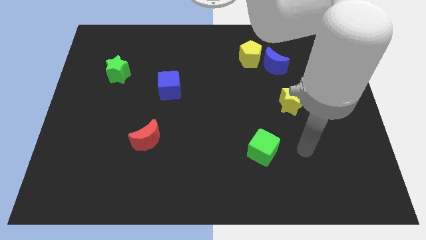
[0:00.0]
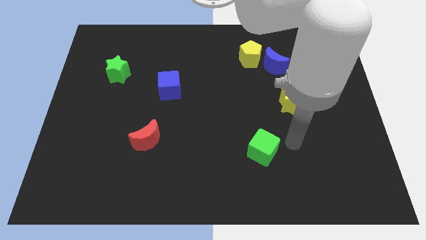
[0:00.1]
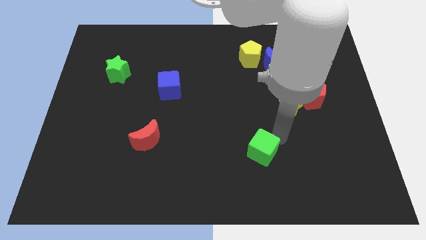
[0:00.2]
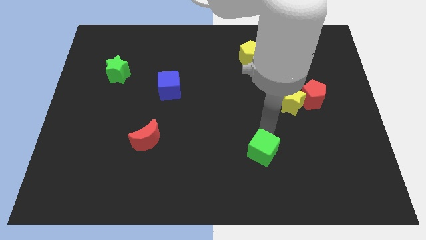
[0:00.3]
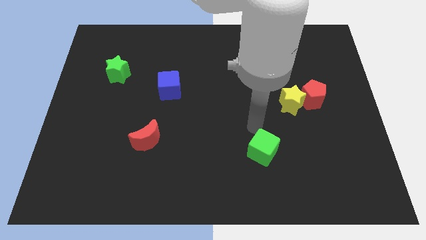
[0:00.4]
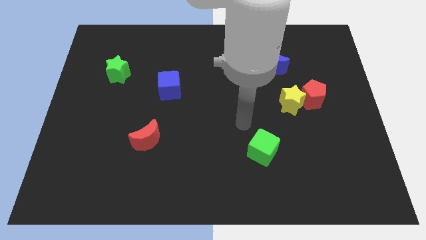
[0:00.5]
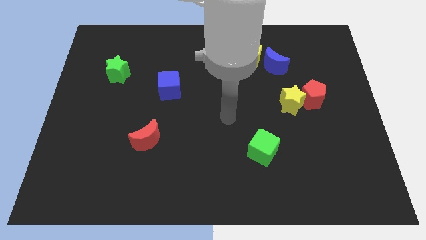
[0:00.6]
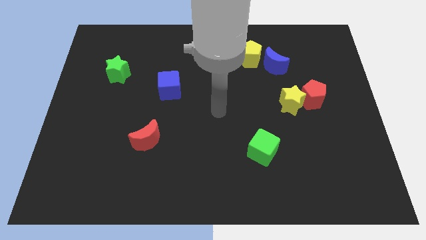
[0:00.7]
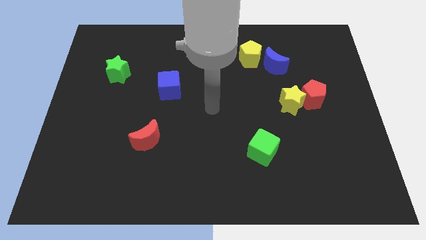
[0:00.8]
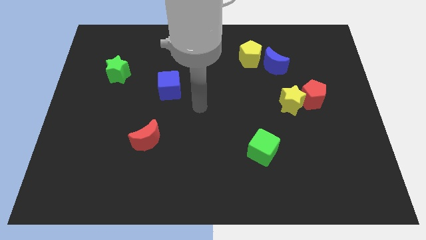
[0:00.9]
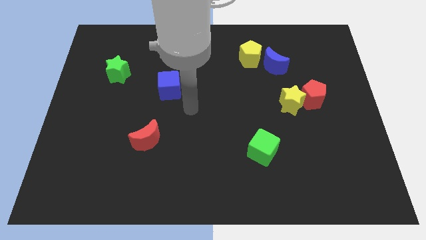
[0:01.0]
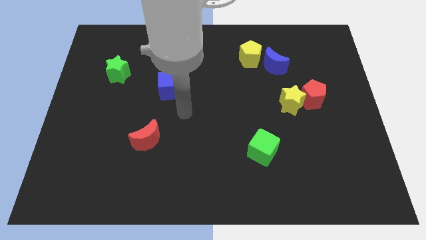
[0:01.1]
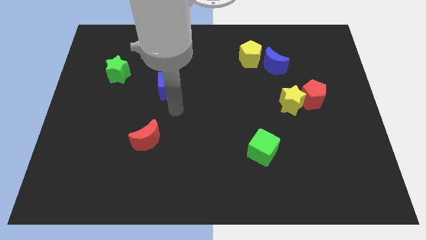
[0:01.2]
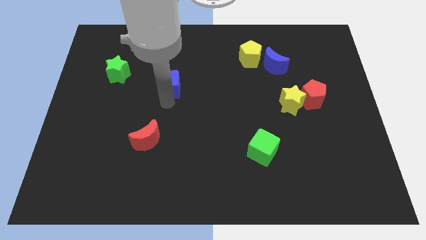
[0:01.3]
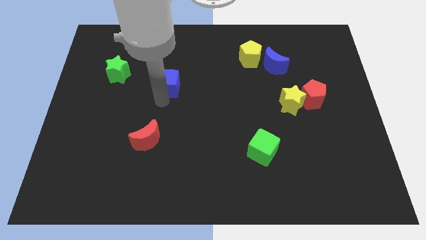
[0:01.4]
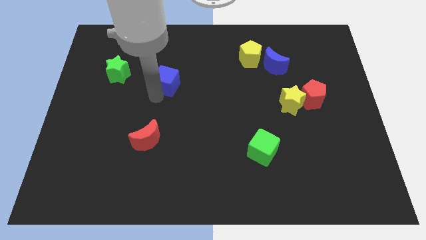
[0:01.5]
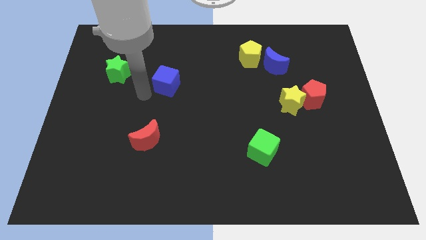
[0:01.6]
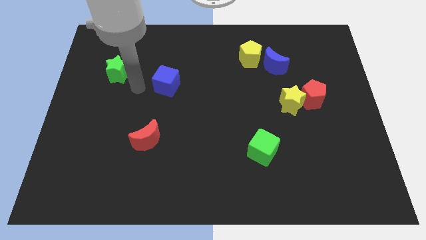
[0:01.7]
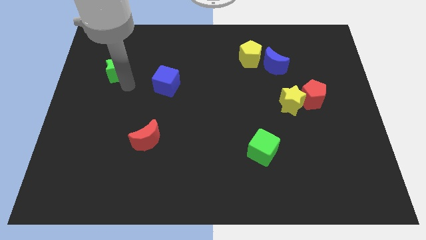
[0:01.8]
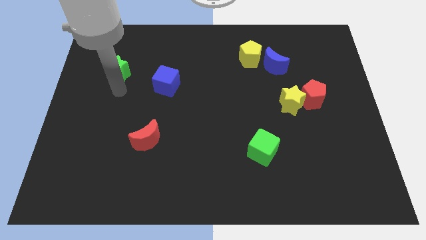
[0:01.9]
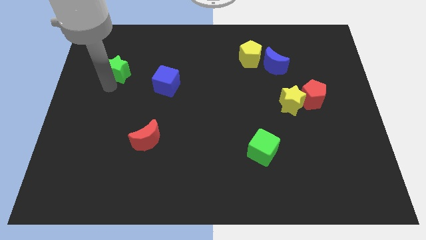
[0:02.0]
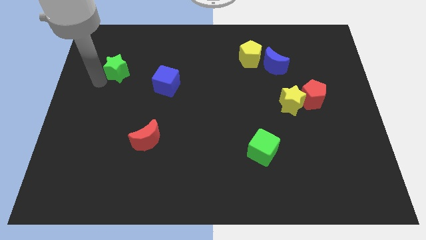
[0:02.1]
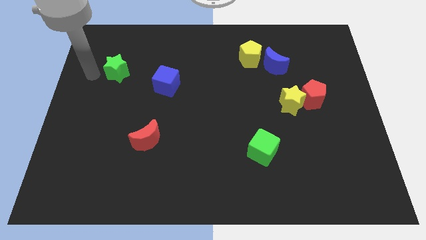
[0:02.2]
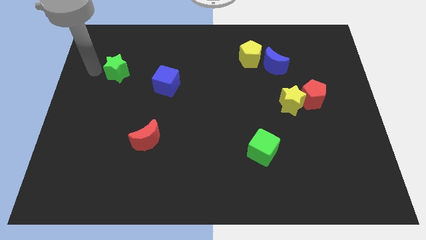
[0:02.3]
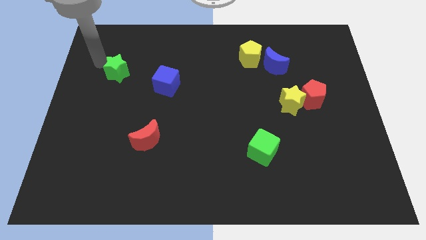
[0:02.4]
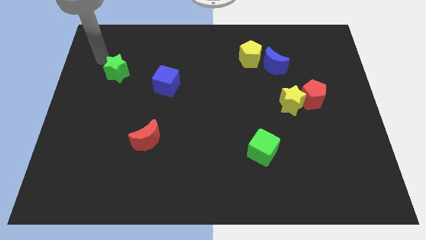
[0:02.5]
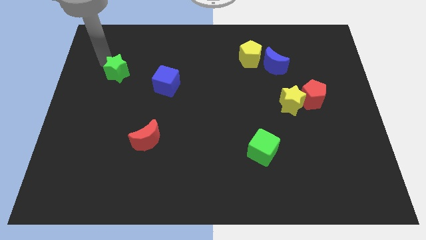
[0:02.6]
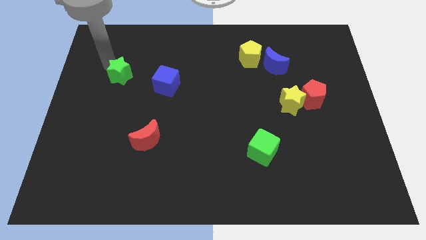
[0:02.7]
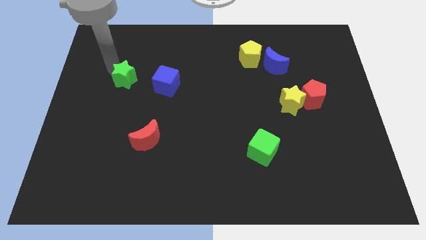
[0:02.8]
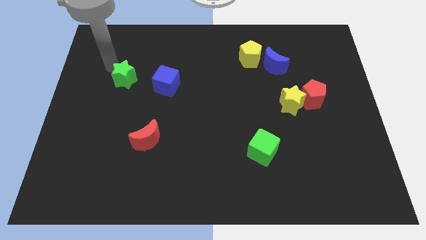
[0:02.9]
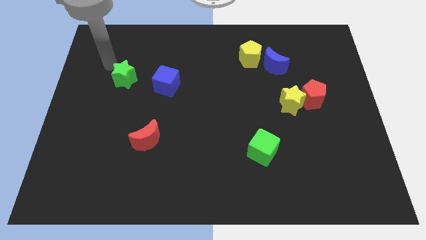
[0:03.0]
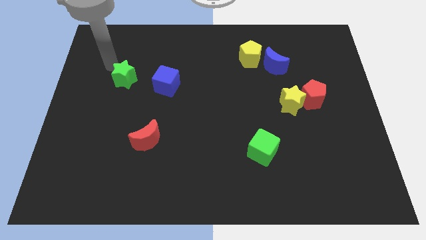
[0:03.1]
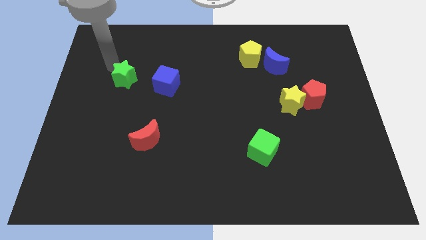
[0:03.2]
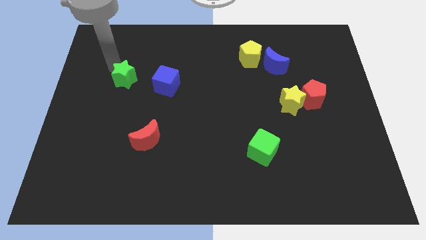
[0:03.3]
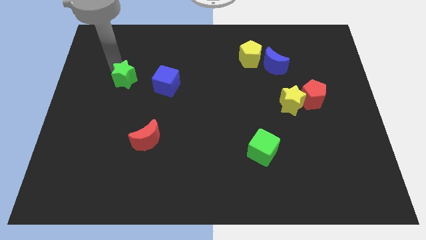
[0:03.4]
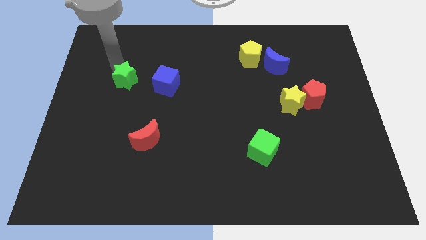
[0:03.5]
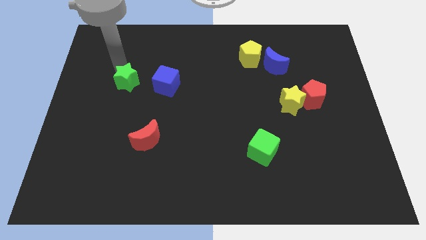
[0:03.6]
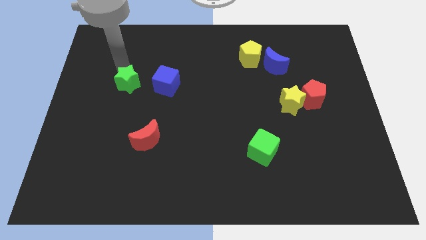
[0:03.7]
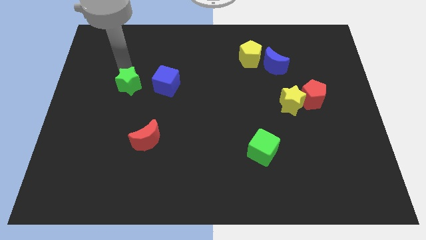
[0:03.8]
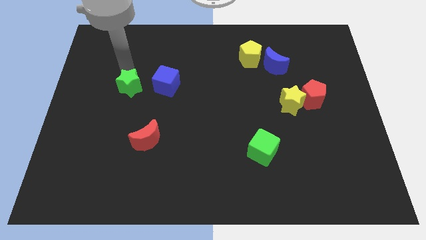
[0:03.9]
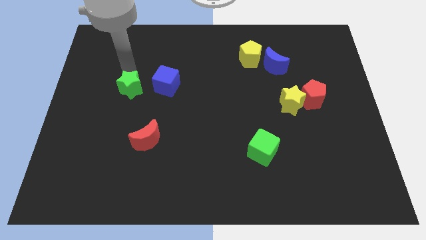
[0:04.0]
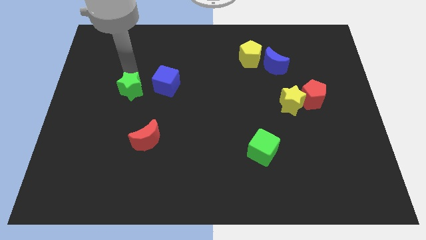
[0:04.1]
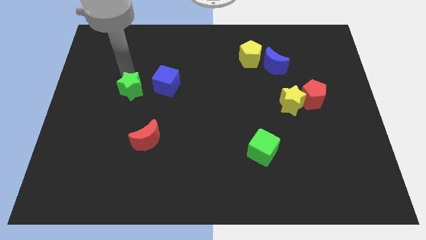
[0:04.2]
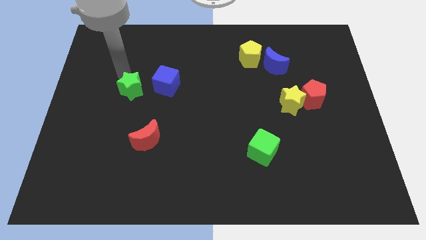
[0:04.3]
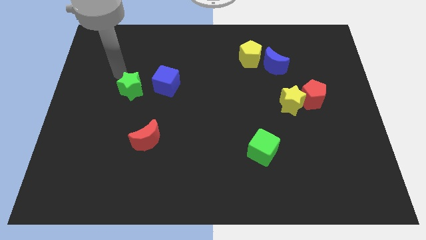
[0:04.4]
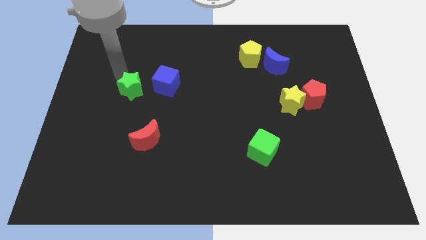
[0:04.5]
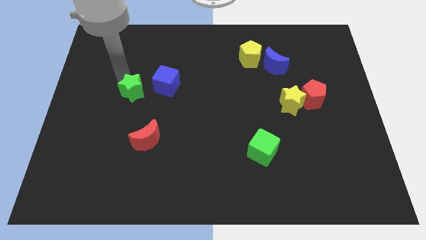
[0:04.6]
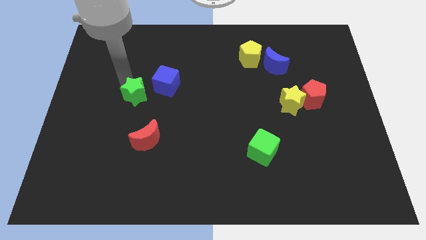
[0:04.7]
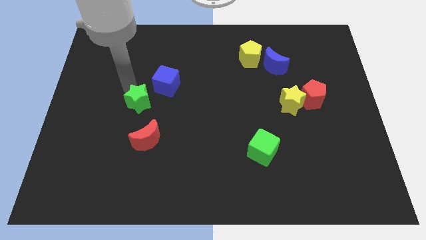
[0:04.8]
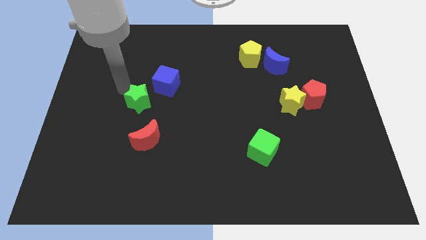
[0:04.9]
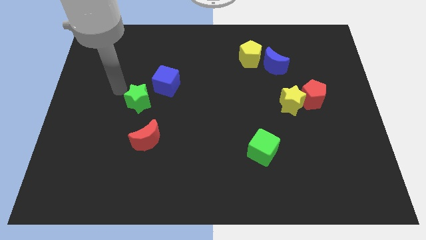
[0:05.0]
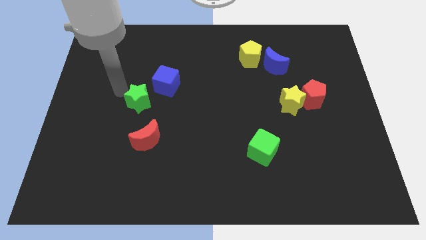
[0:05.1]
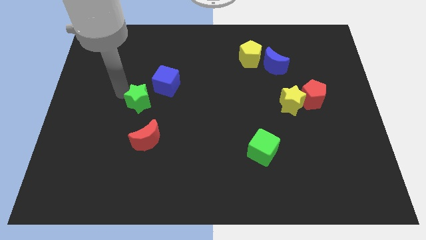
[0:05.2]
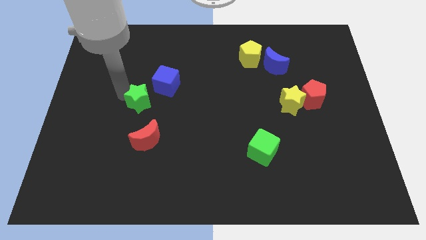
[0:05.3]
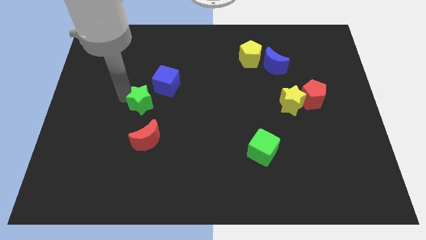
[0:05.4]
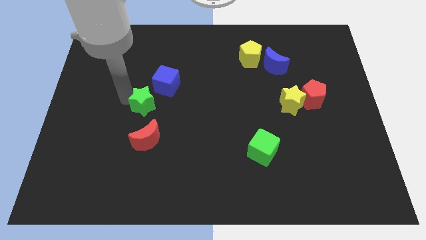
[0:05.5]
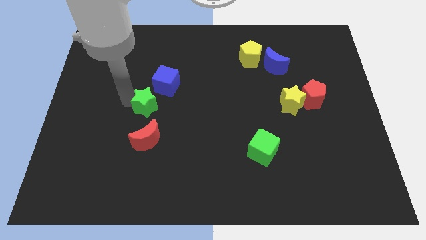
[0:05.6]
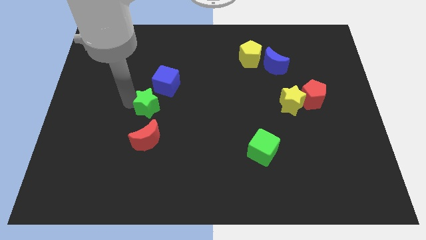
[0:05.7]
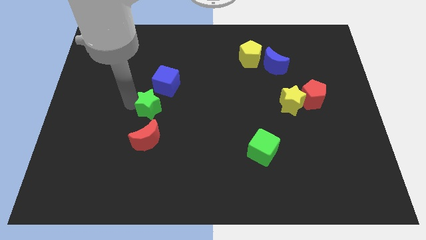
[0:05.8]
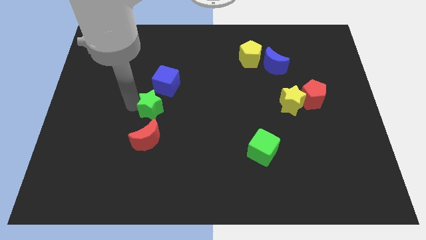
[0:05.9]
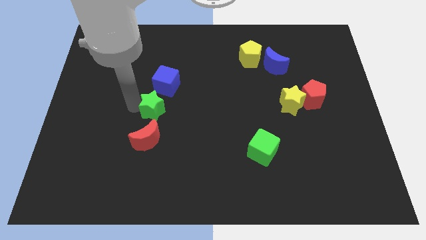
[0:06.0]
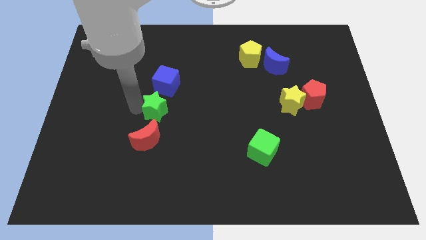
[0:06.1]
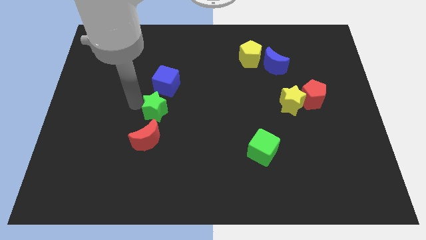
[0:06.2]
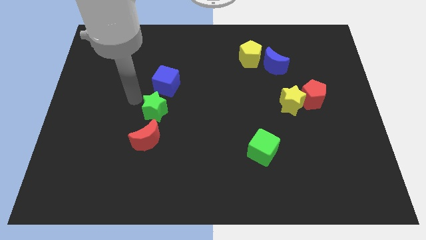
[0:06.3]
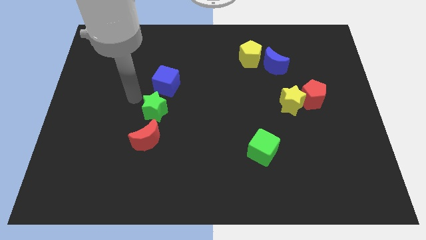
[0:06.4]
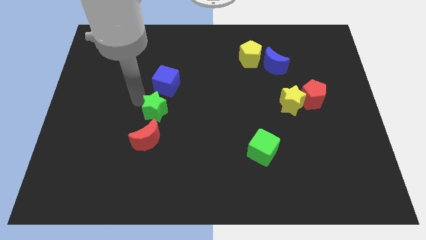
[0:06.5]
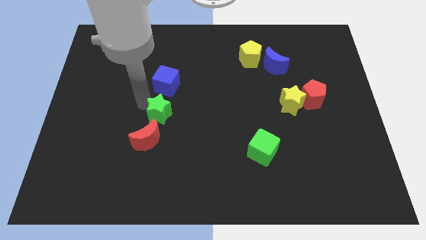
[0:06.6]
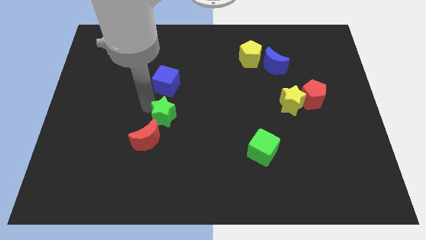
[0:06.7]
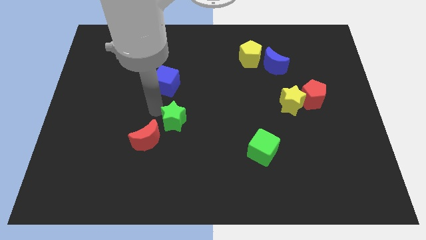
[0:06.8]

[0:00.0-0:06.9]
push the green star down and right diagonally

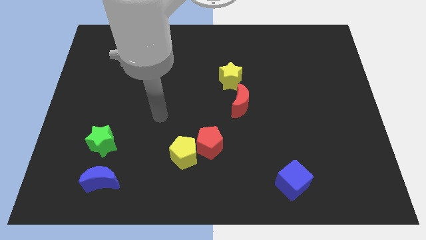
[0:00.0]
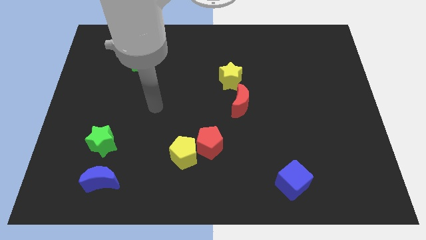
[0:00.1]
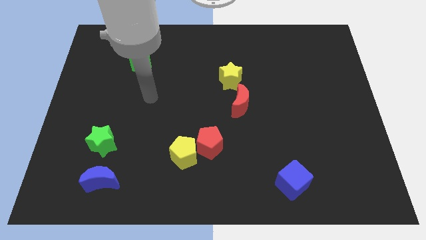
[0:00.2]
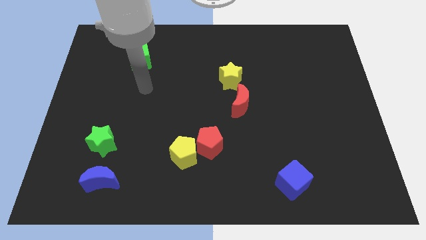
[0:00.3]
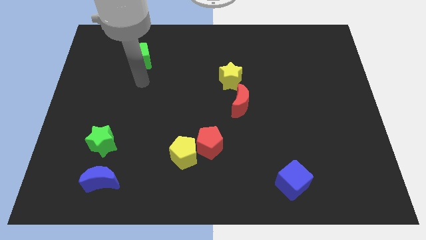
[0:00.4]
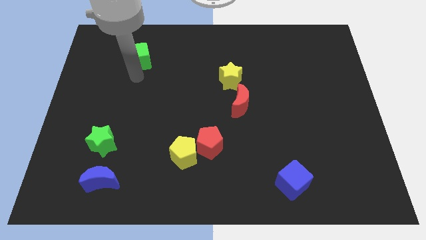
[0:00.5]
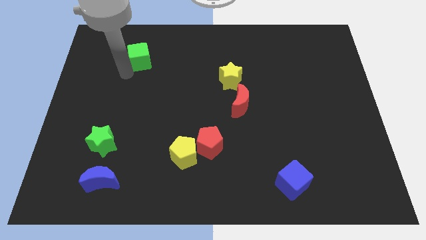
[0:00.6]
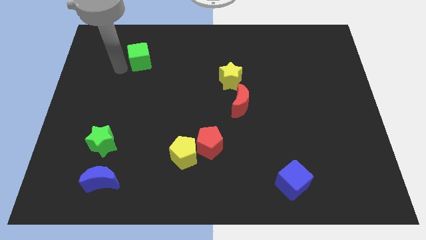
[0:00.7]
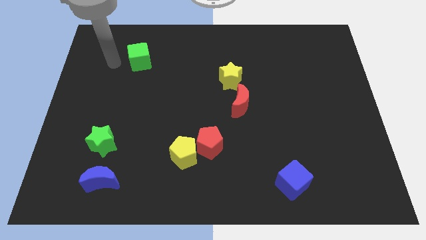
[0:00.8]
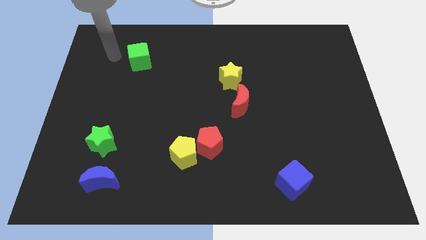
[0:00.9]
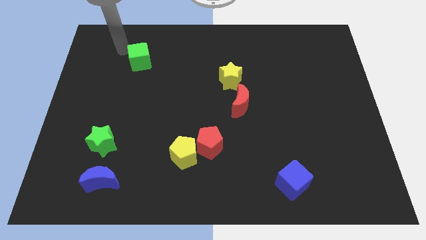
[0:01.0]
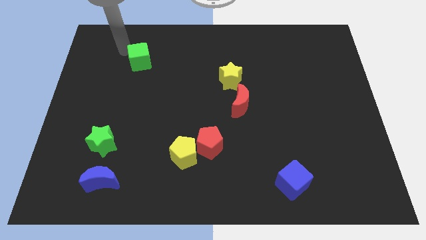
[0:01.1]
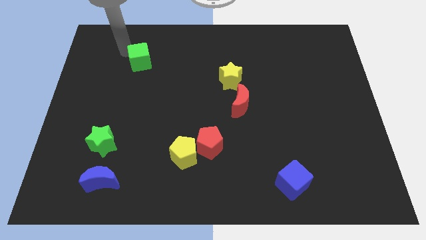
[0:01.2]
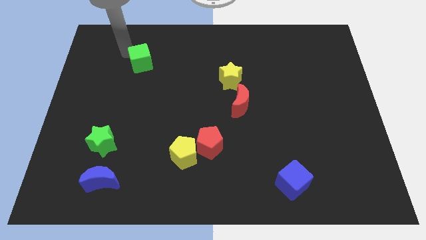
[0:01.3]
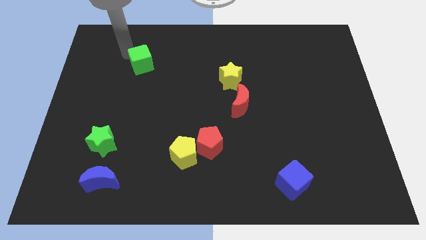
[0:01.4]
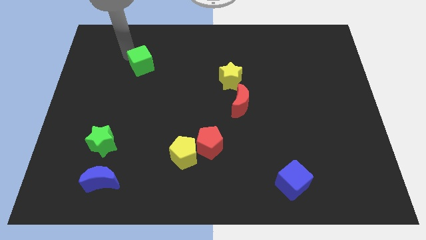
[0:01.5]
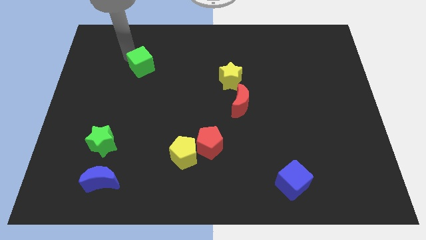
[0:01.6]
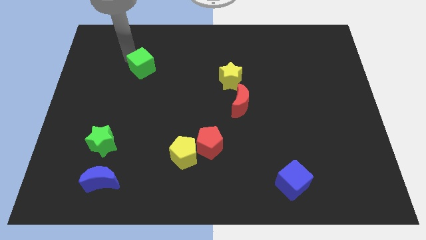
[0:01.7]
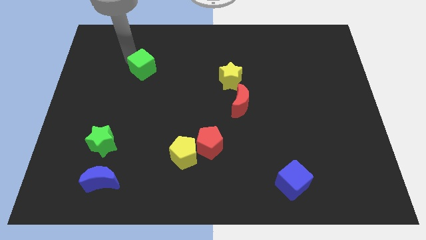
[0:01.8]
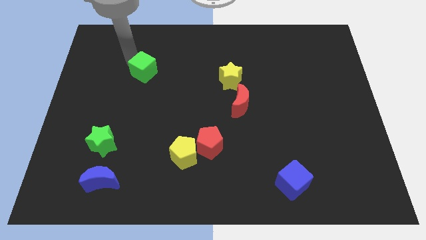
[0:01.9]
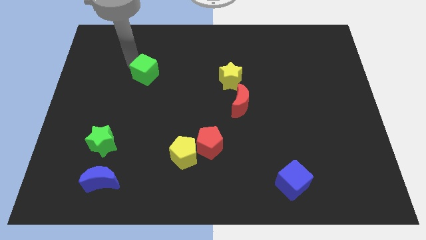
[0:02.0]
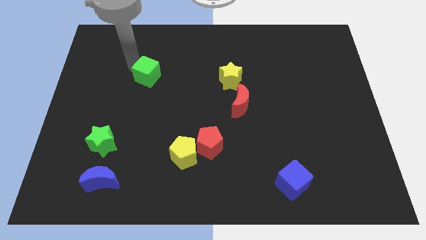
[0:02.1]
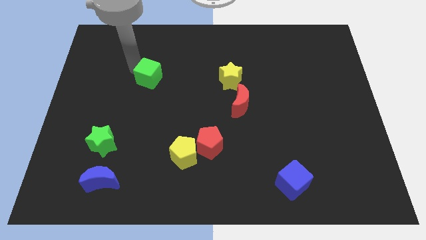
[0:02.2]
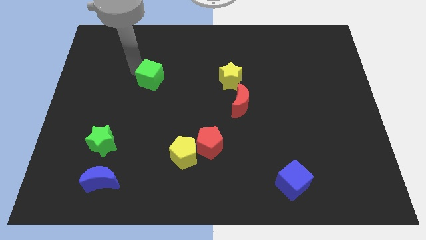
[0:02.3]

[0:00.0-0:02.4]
move the green cube down and right a little bit
